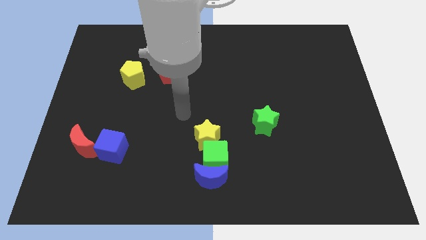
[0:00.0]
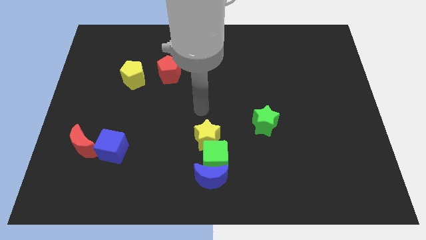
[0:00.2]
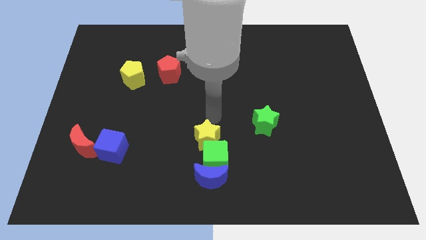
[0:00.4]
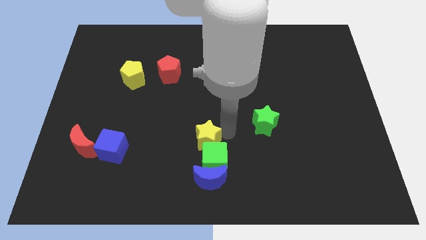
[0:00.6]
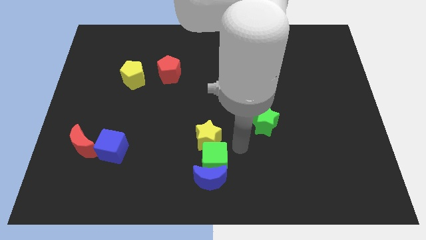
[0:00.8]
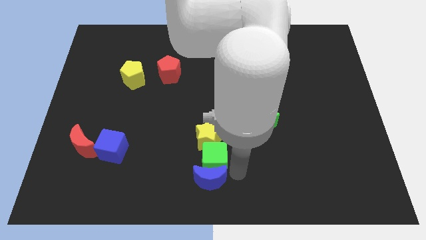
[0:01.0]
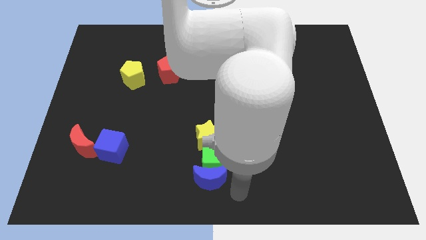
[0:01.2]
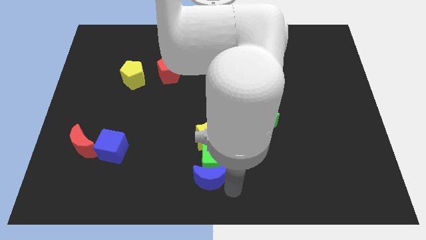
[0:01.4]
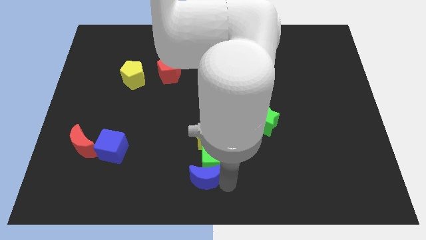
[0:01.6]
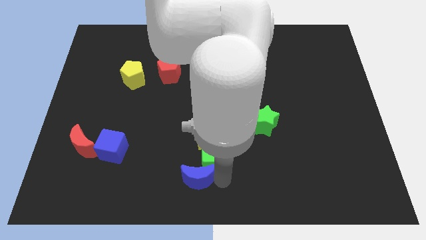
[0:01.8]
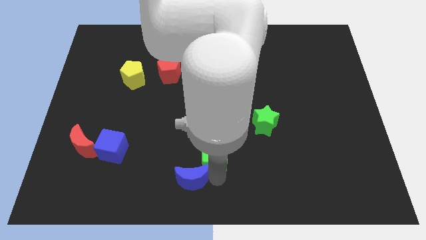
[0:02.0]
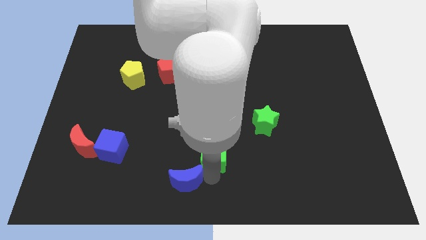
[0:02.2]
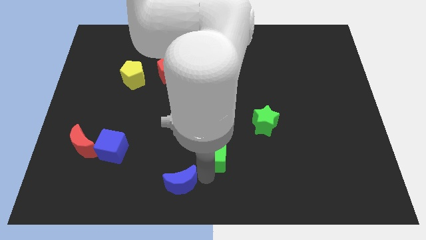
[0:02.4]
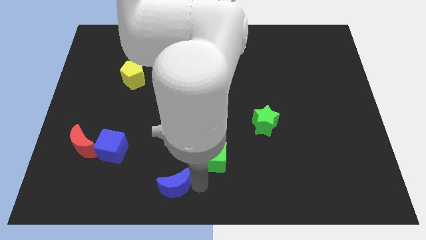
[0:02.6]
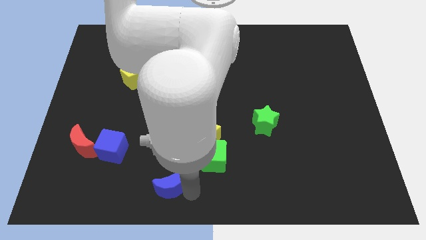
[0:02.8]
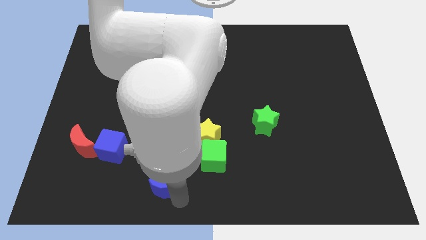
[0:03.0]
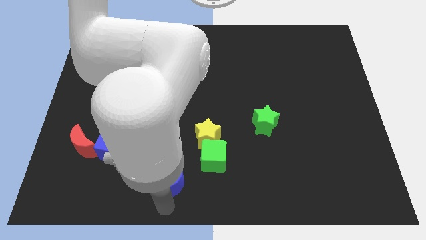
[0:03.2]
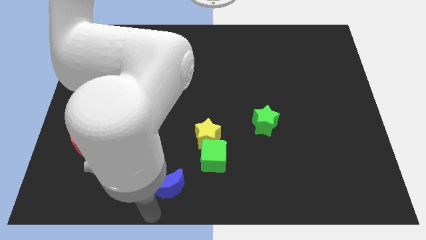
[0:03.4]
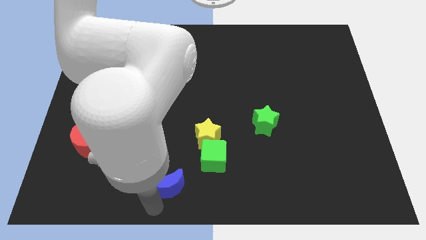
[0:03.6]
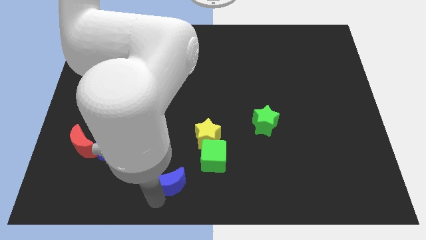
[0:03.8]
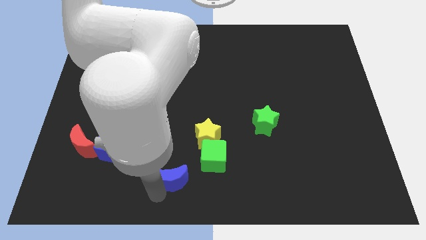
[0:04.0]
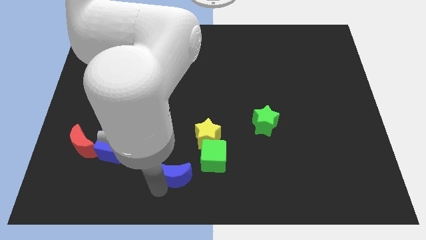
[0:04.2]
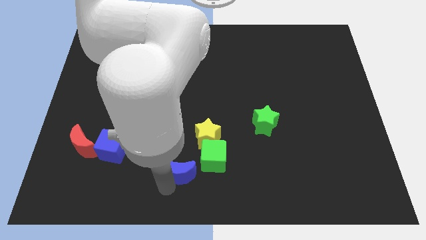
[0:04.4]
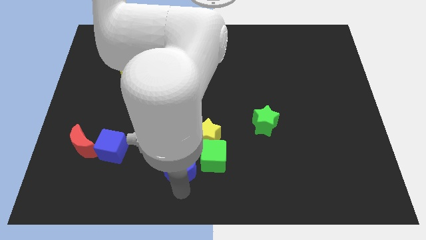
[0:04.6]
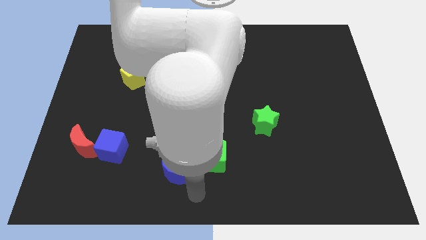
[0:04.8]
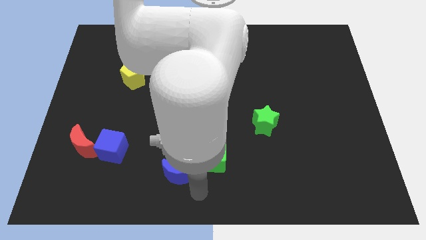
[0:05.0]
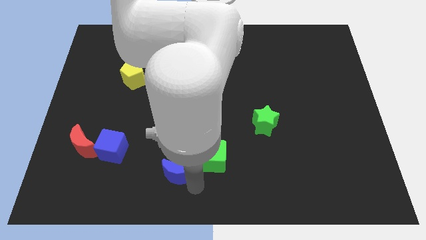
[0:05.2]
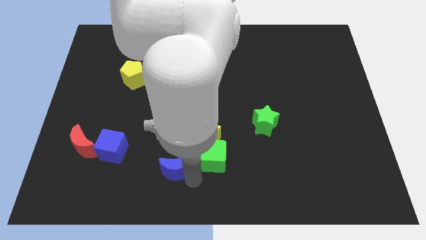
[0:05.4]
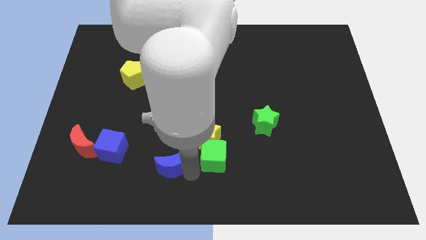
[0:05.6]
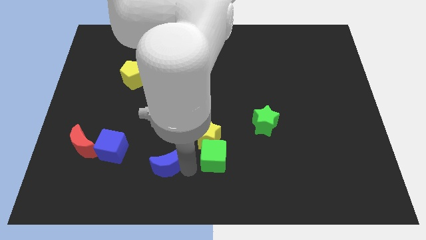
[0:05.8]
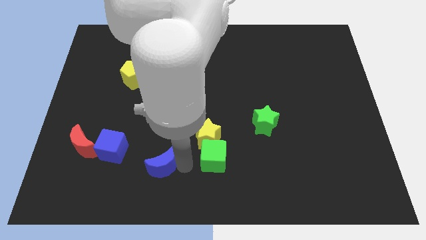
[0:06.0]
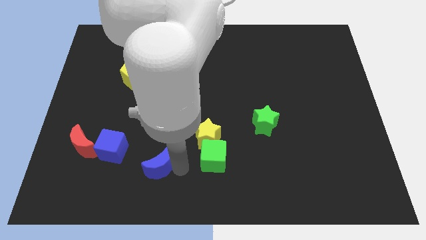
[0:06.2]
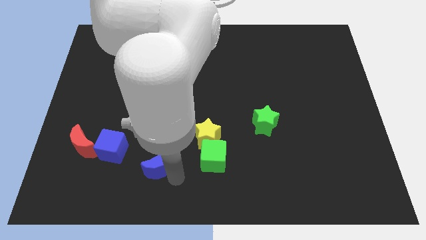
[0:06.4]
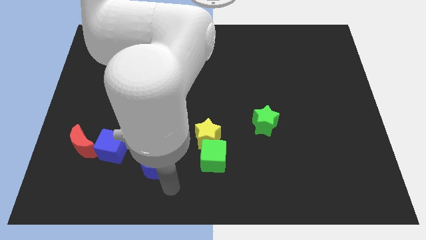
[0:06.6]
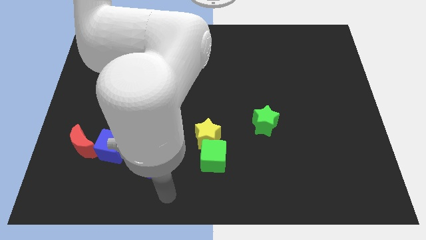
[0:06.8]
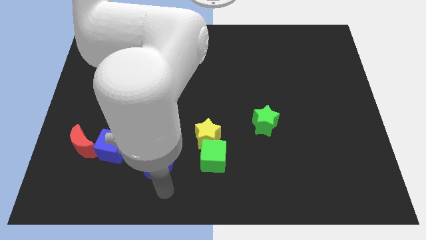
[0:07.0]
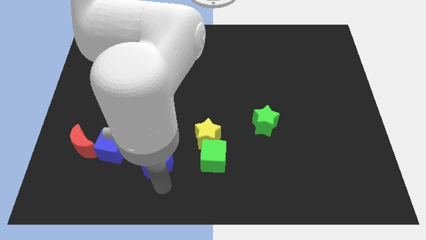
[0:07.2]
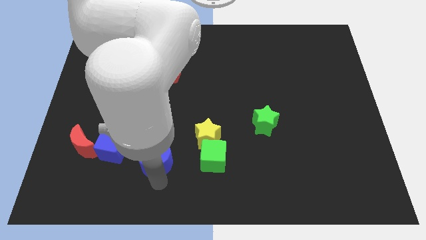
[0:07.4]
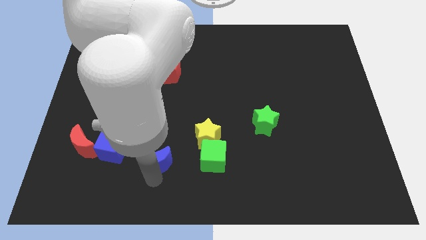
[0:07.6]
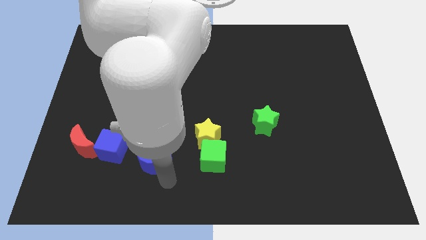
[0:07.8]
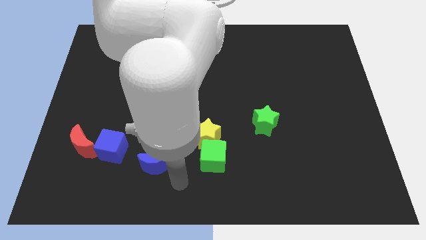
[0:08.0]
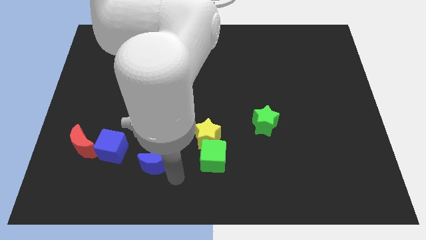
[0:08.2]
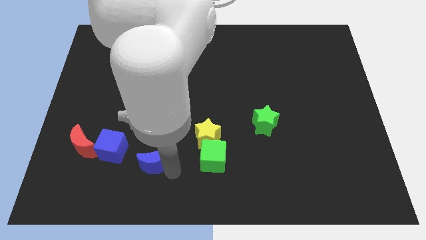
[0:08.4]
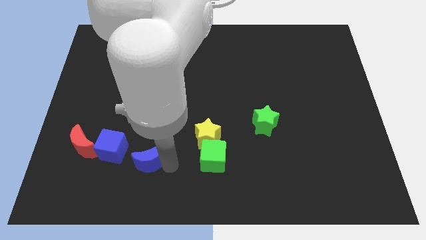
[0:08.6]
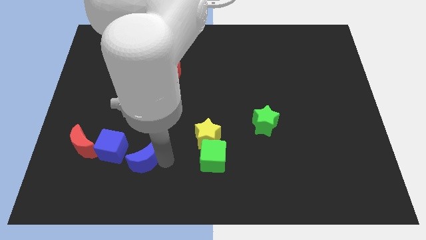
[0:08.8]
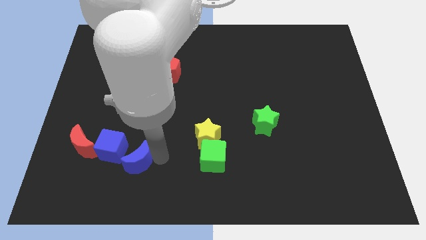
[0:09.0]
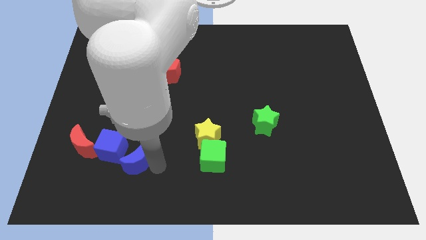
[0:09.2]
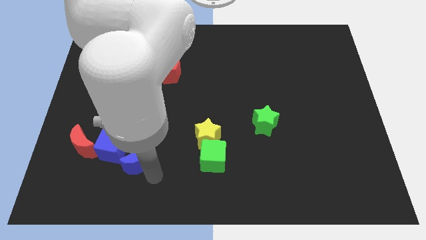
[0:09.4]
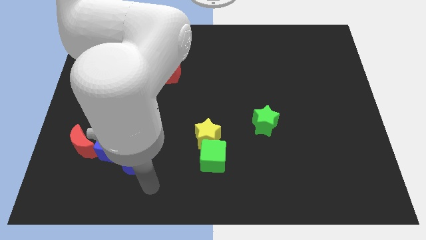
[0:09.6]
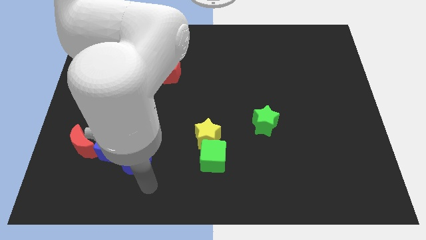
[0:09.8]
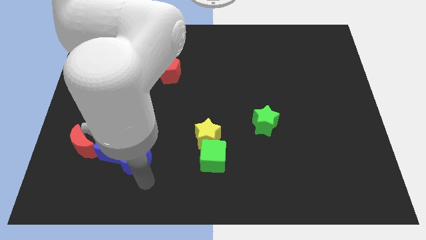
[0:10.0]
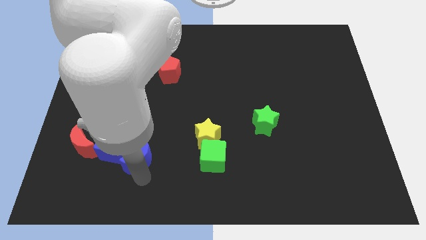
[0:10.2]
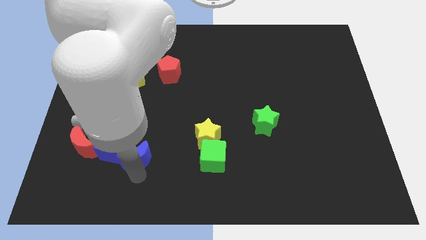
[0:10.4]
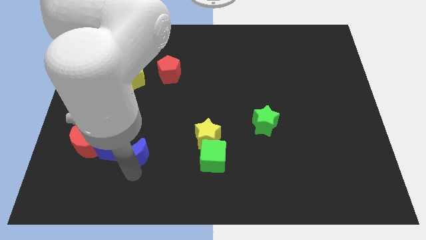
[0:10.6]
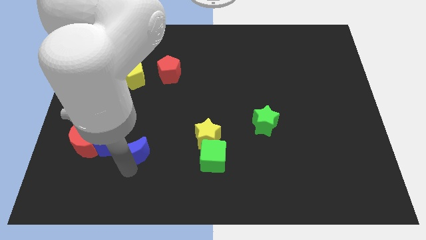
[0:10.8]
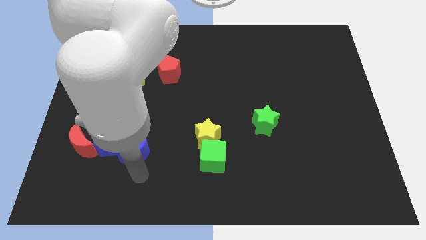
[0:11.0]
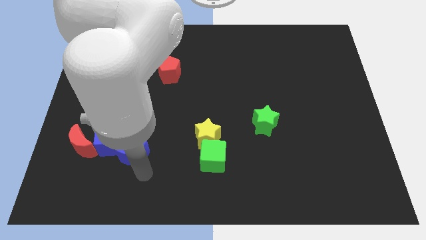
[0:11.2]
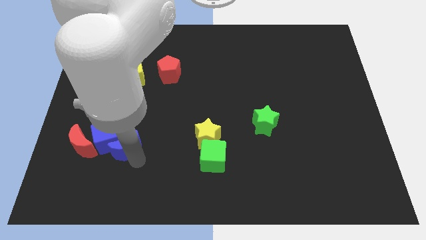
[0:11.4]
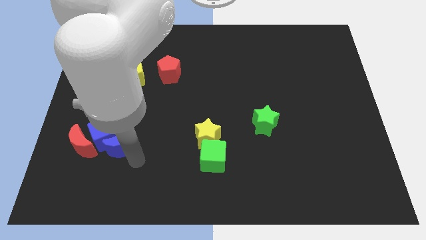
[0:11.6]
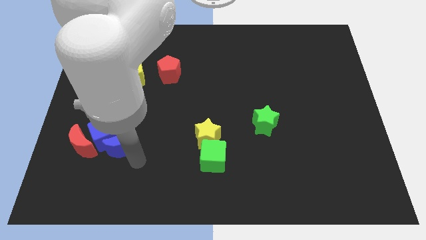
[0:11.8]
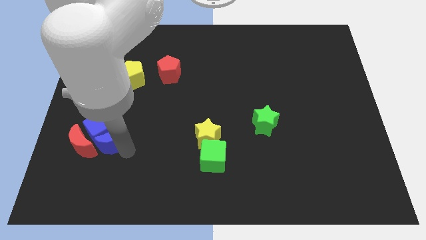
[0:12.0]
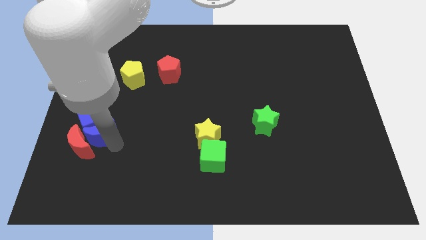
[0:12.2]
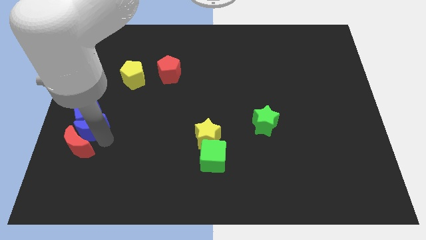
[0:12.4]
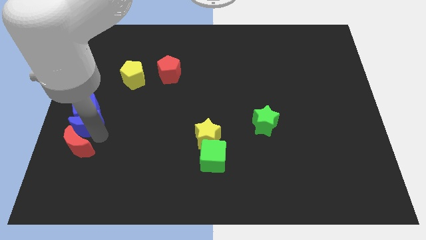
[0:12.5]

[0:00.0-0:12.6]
push the blue moon to the left side of the board

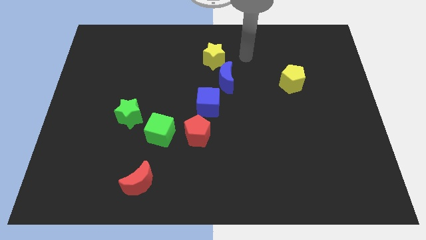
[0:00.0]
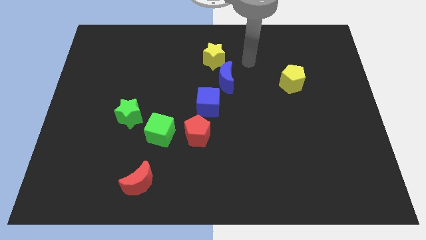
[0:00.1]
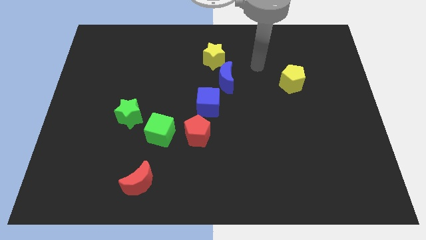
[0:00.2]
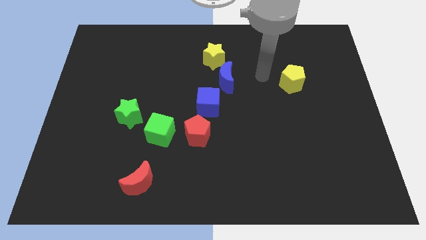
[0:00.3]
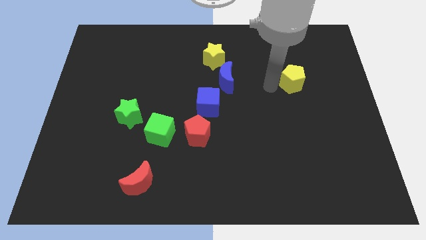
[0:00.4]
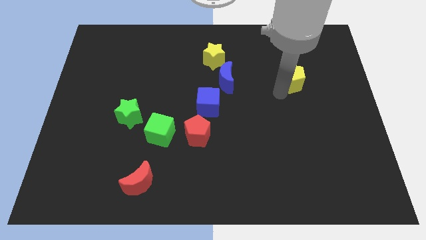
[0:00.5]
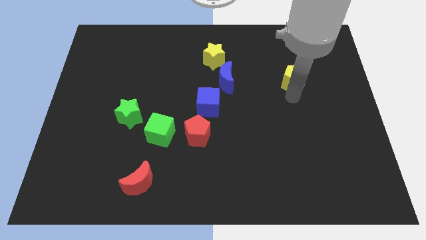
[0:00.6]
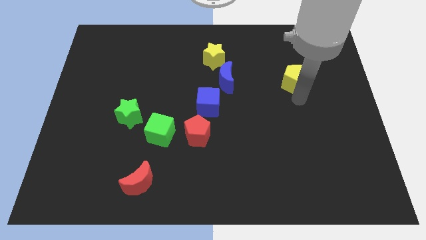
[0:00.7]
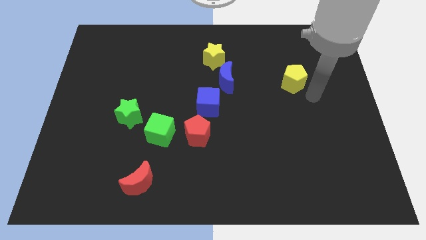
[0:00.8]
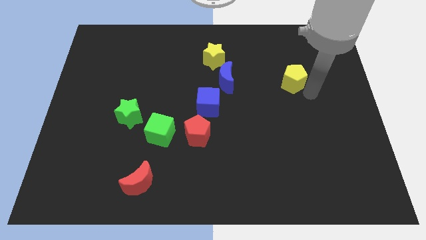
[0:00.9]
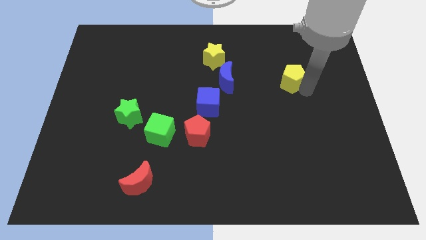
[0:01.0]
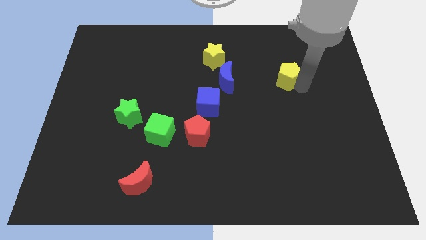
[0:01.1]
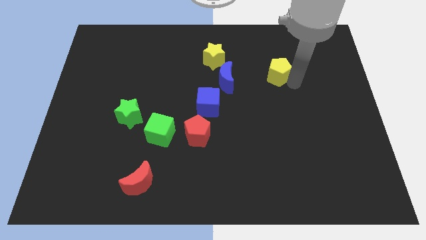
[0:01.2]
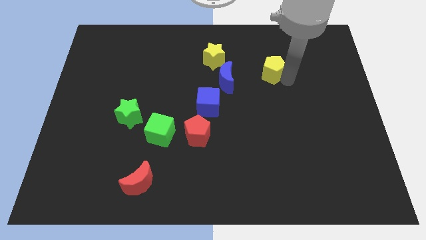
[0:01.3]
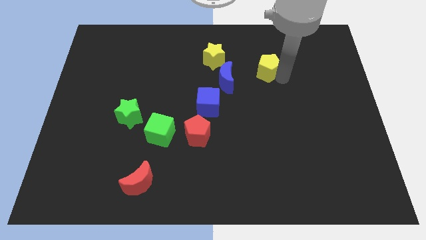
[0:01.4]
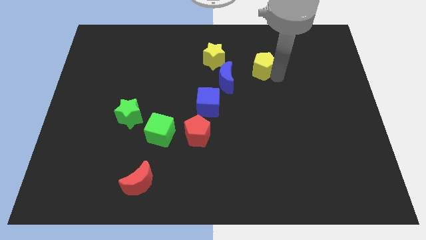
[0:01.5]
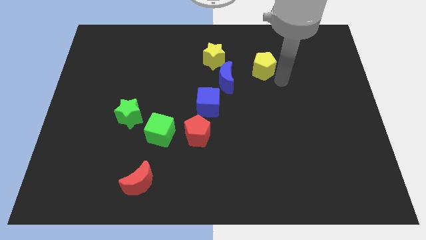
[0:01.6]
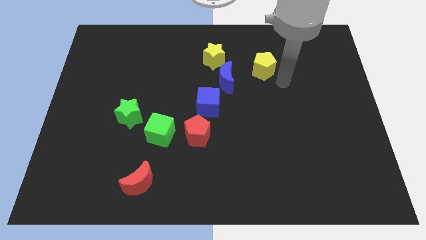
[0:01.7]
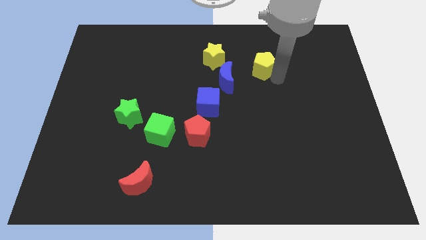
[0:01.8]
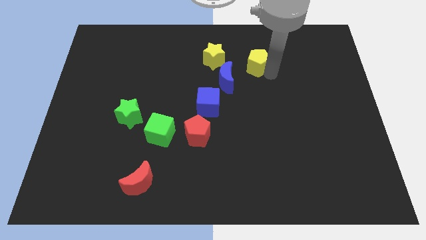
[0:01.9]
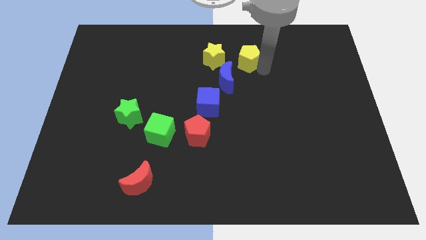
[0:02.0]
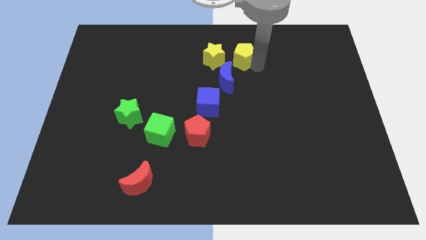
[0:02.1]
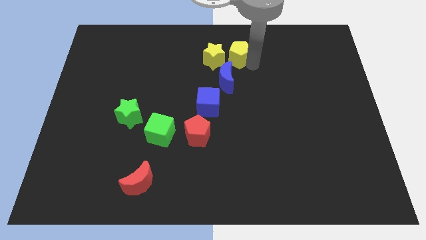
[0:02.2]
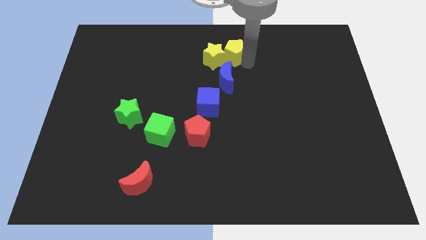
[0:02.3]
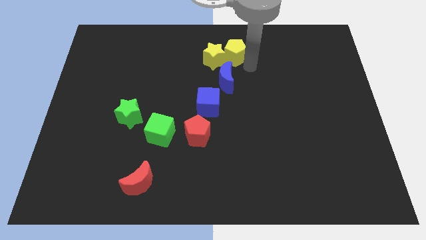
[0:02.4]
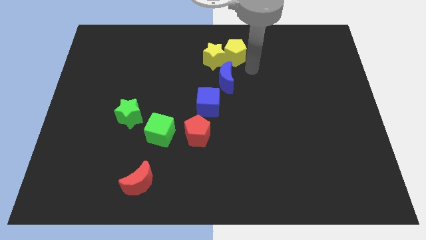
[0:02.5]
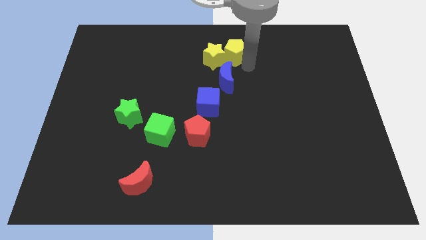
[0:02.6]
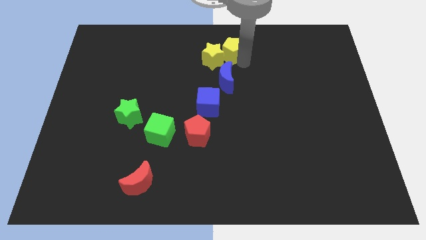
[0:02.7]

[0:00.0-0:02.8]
slide the yellow pentagon to the top side
